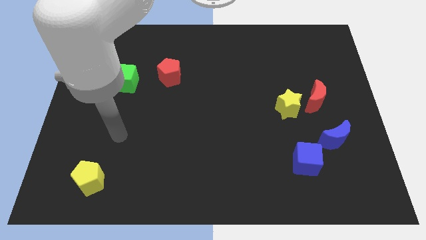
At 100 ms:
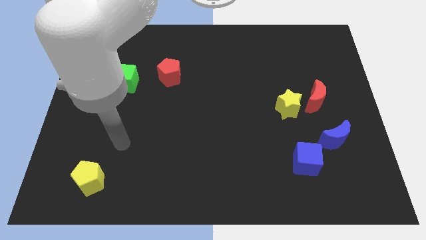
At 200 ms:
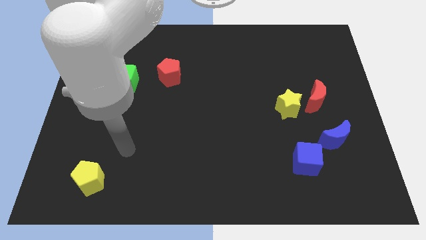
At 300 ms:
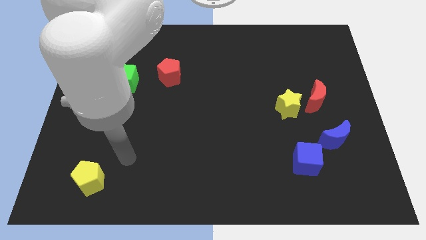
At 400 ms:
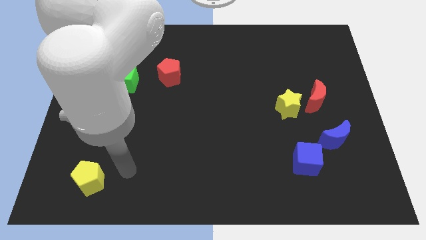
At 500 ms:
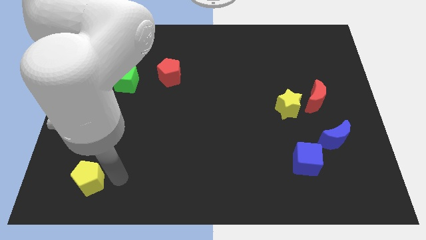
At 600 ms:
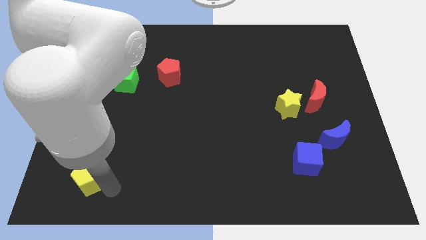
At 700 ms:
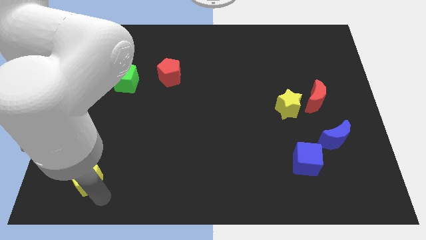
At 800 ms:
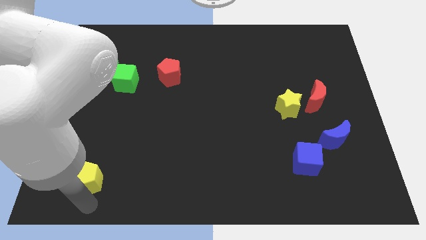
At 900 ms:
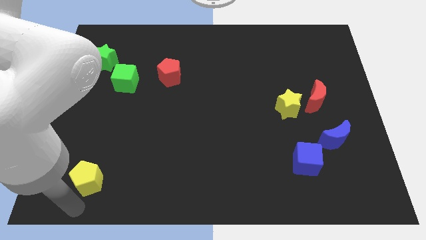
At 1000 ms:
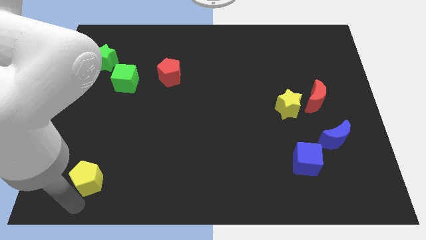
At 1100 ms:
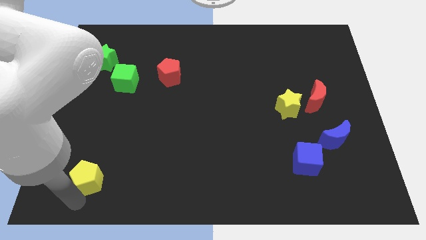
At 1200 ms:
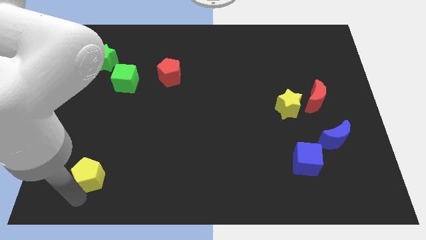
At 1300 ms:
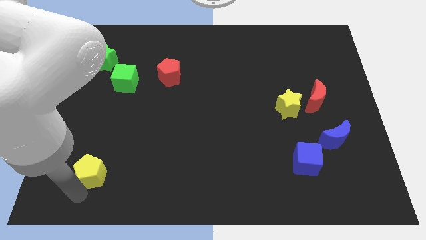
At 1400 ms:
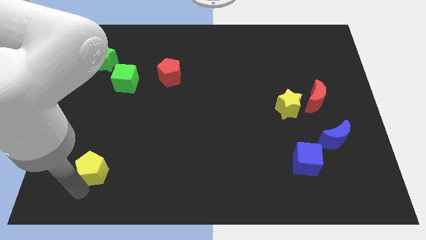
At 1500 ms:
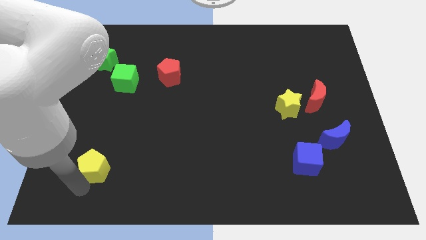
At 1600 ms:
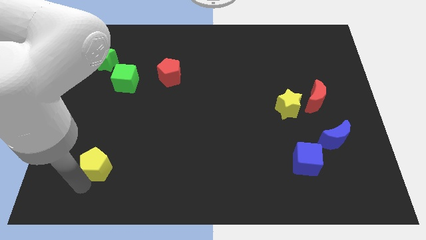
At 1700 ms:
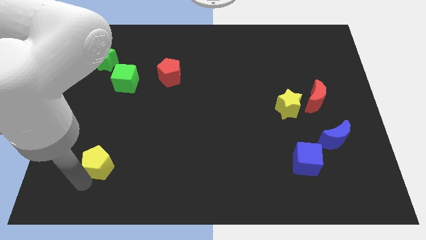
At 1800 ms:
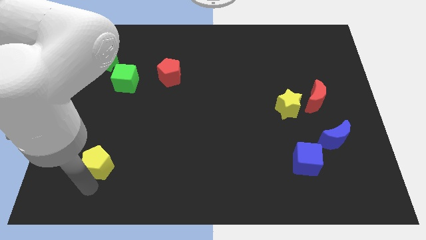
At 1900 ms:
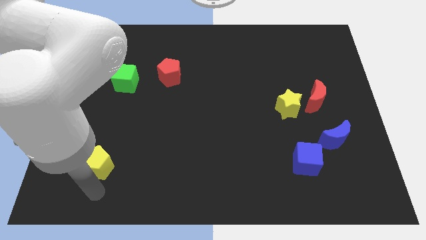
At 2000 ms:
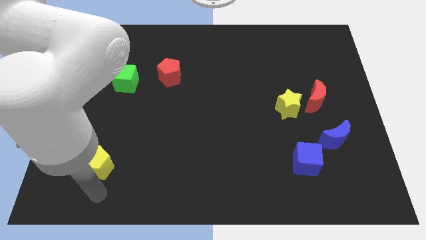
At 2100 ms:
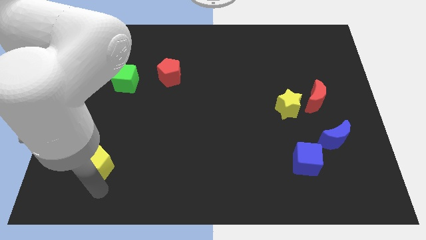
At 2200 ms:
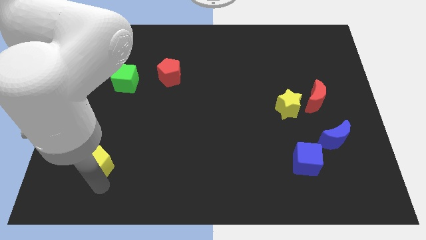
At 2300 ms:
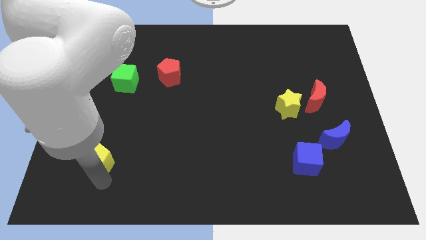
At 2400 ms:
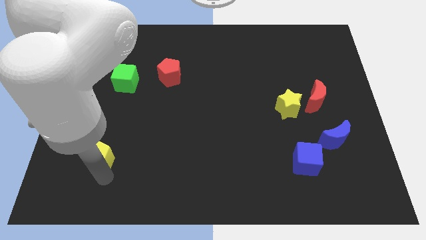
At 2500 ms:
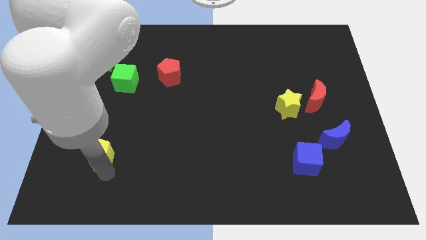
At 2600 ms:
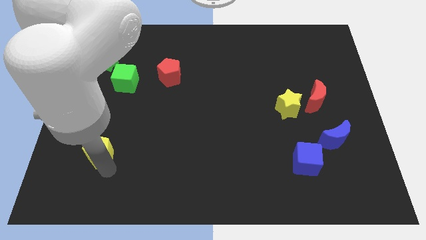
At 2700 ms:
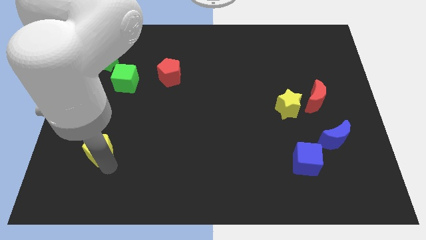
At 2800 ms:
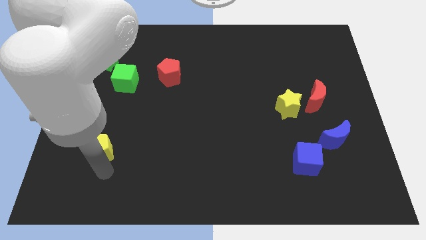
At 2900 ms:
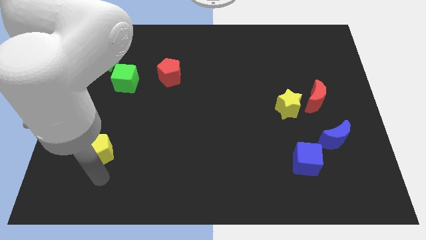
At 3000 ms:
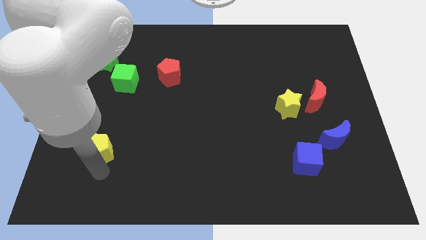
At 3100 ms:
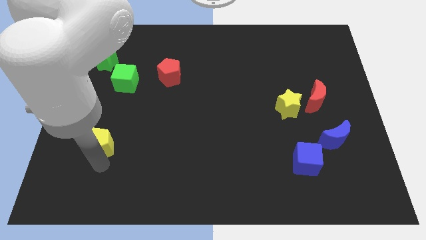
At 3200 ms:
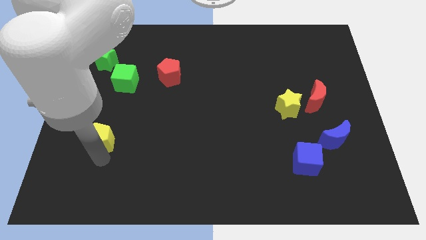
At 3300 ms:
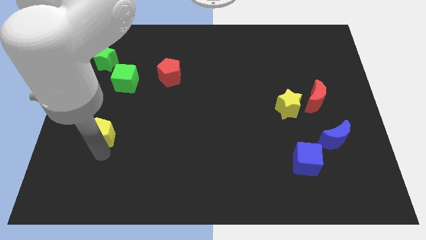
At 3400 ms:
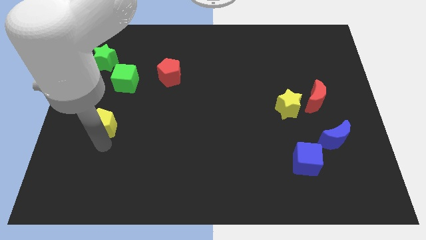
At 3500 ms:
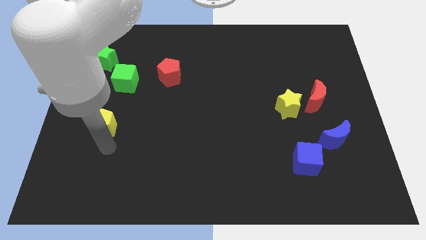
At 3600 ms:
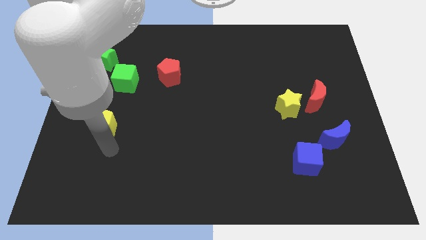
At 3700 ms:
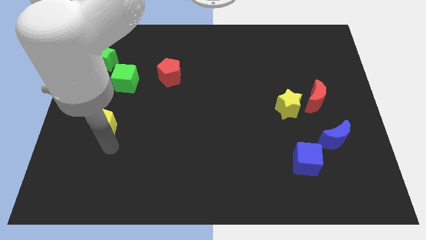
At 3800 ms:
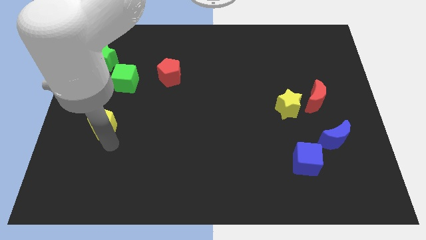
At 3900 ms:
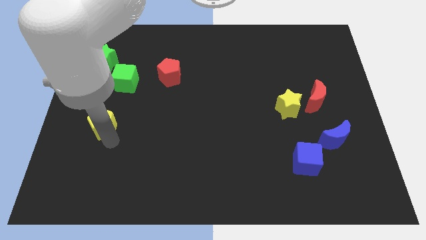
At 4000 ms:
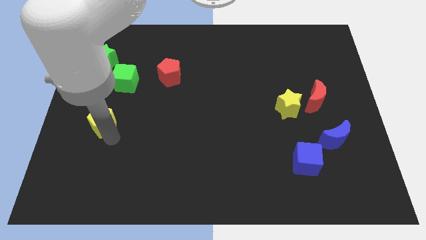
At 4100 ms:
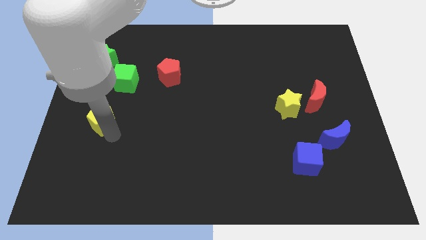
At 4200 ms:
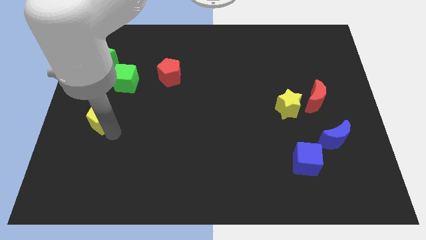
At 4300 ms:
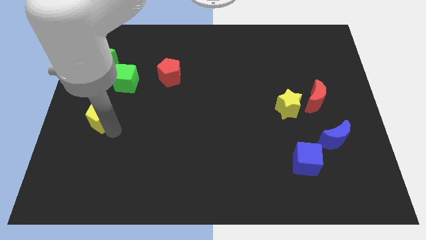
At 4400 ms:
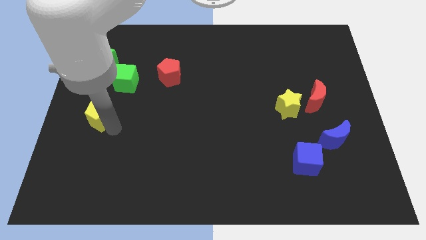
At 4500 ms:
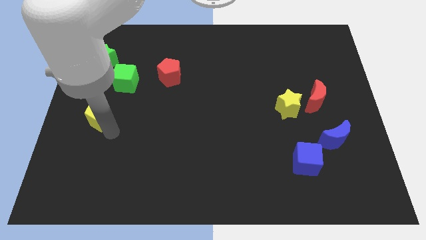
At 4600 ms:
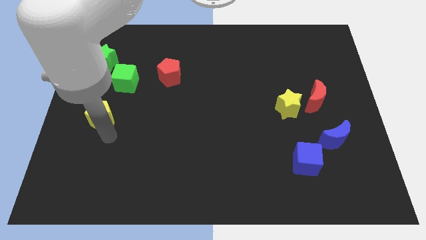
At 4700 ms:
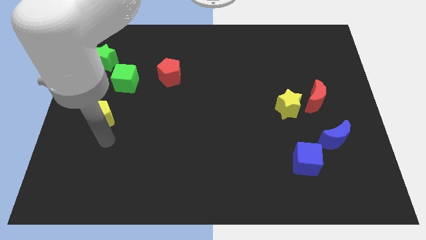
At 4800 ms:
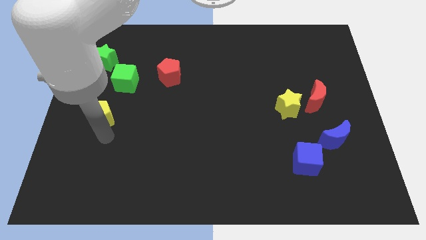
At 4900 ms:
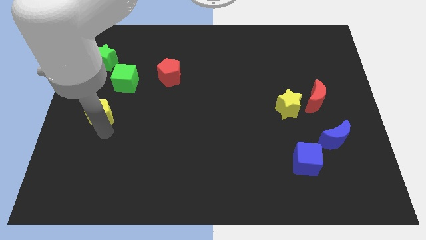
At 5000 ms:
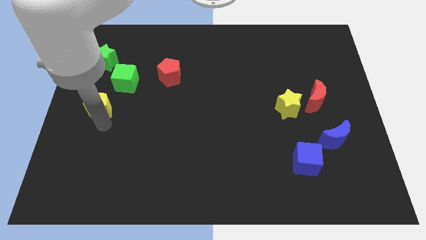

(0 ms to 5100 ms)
slide the yellow pentagon to the bottom side of the green star

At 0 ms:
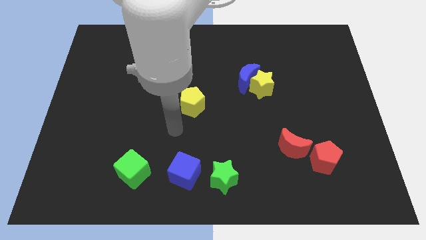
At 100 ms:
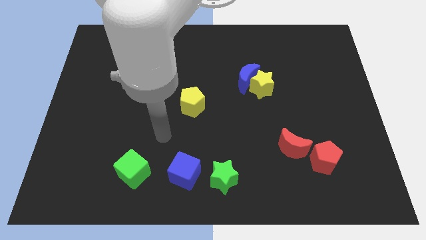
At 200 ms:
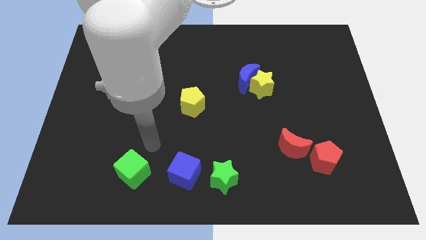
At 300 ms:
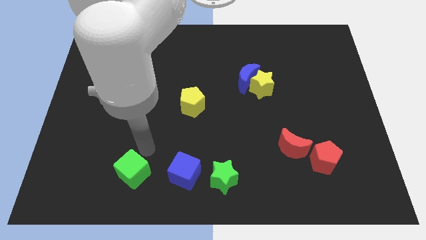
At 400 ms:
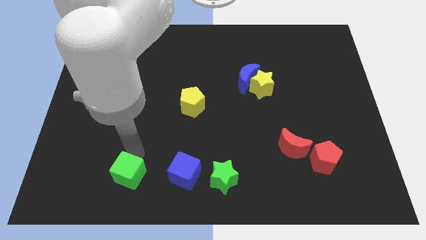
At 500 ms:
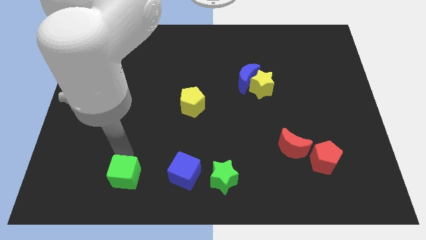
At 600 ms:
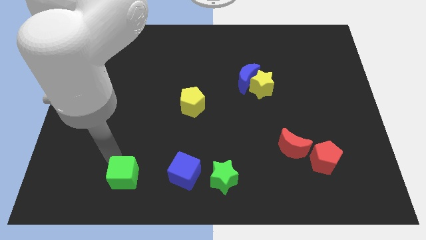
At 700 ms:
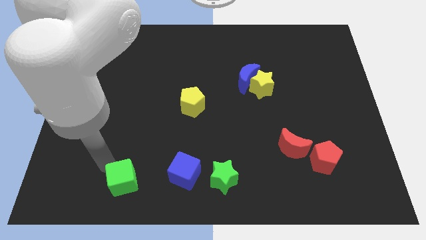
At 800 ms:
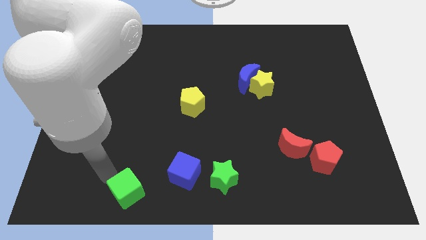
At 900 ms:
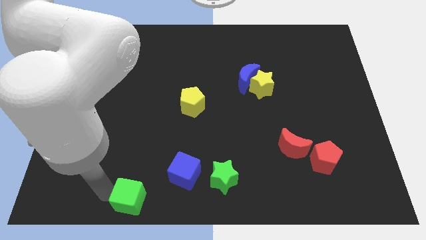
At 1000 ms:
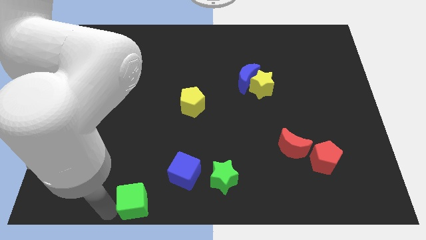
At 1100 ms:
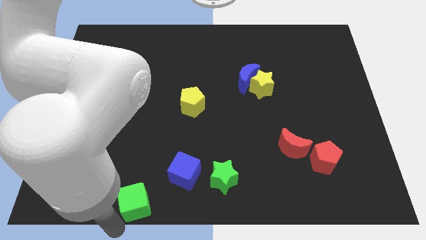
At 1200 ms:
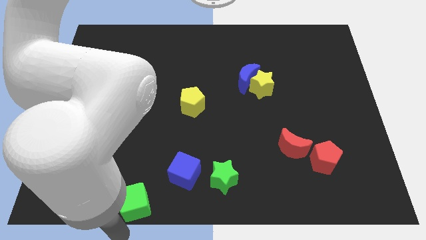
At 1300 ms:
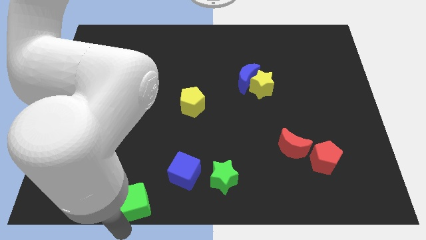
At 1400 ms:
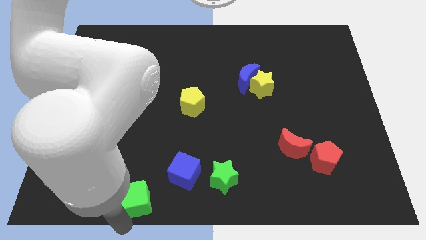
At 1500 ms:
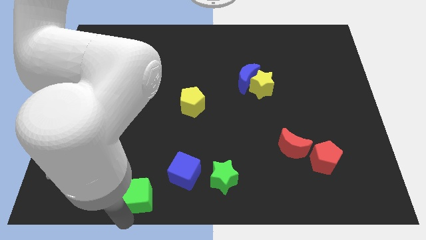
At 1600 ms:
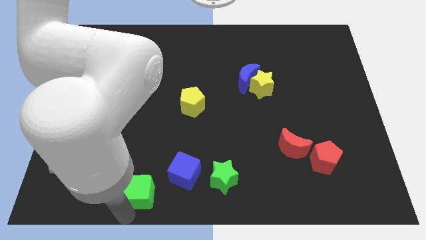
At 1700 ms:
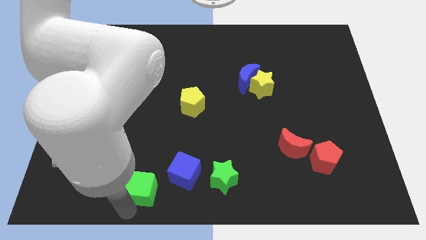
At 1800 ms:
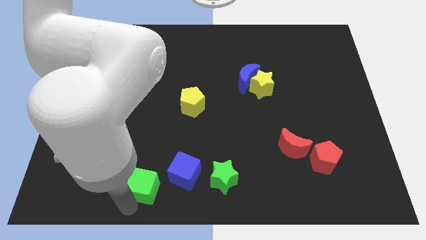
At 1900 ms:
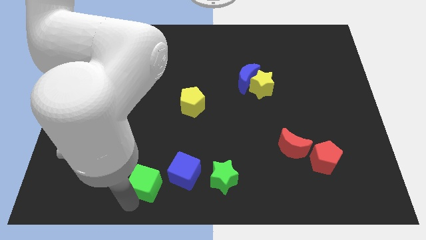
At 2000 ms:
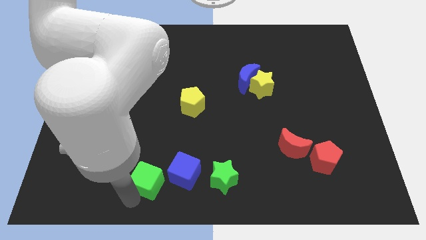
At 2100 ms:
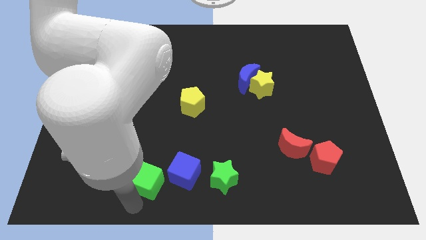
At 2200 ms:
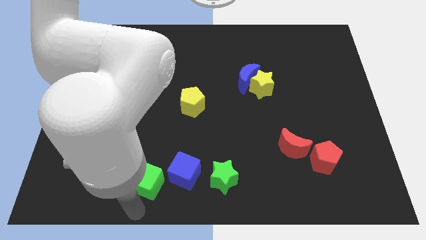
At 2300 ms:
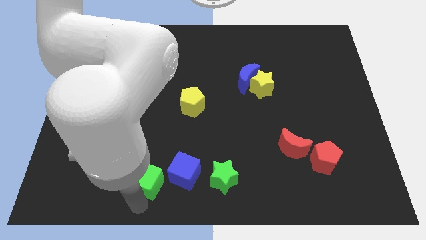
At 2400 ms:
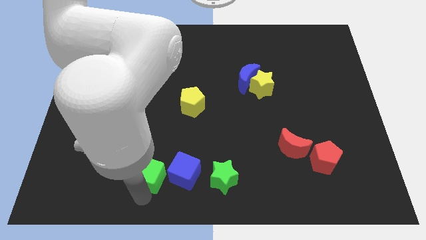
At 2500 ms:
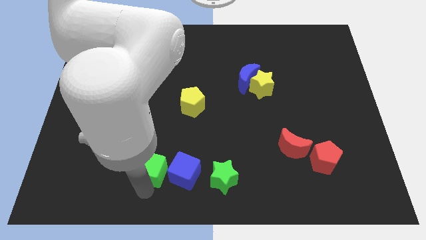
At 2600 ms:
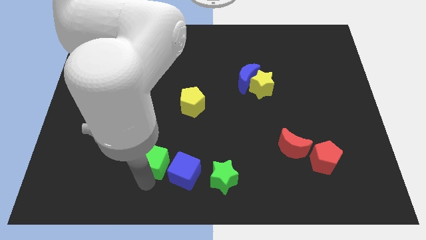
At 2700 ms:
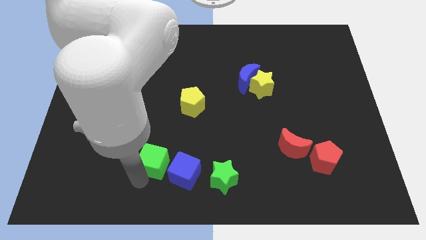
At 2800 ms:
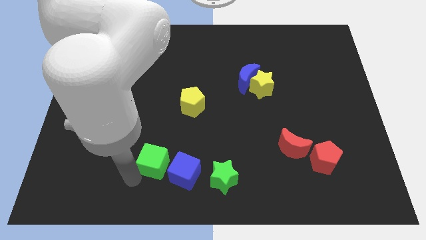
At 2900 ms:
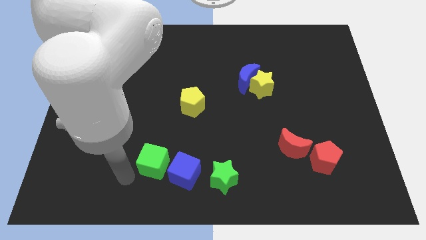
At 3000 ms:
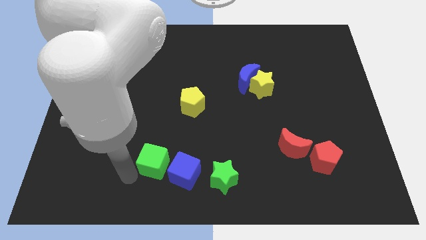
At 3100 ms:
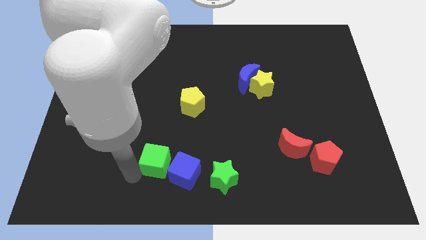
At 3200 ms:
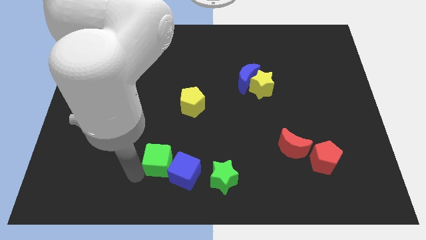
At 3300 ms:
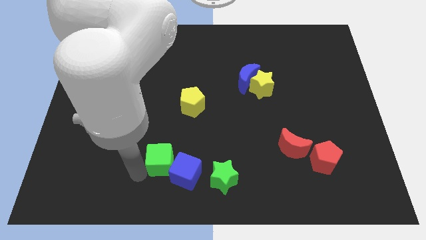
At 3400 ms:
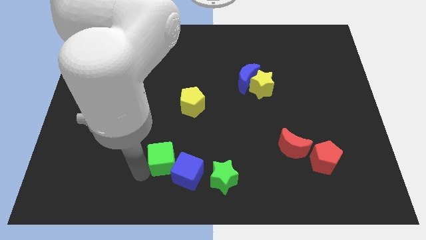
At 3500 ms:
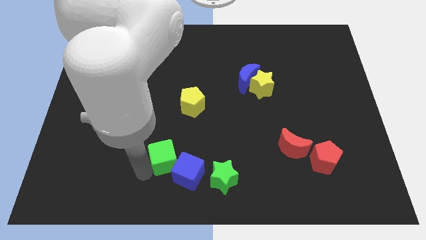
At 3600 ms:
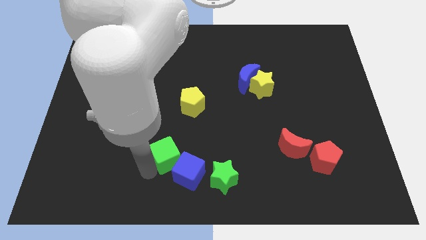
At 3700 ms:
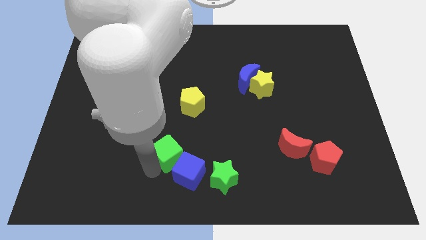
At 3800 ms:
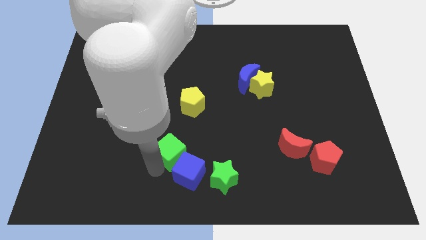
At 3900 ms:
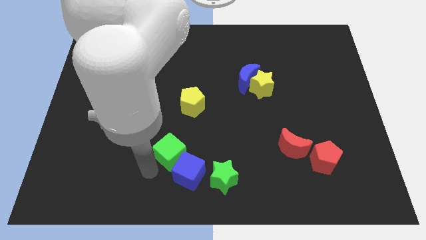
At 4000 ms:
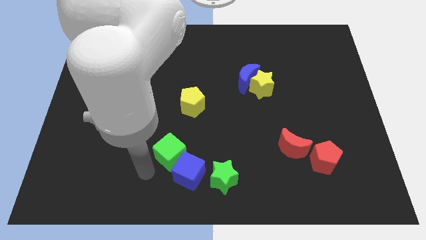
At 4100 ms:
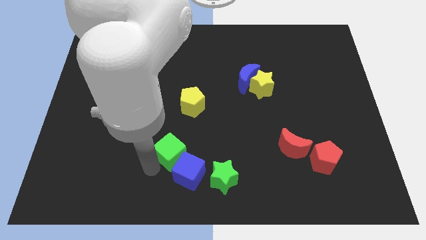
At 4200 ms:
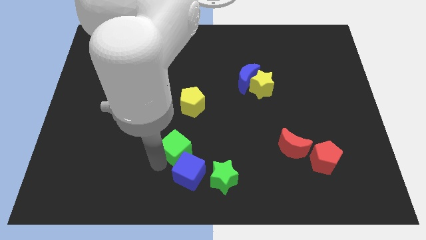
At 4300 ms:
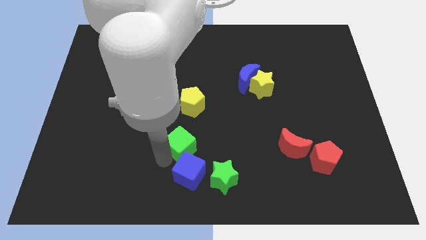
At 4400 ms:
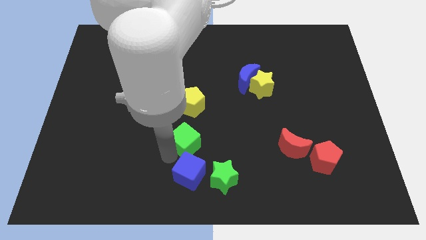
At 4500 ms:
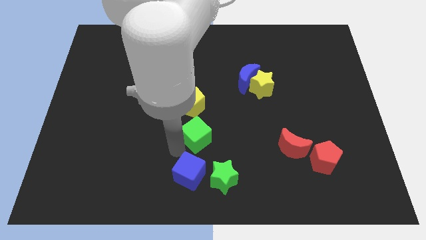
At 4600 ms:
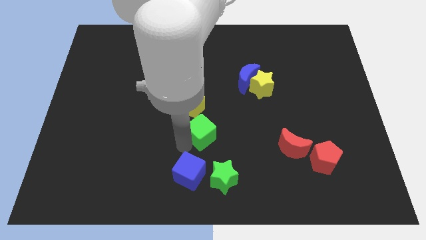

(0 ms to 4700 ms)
move the green cube diagonally down and to the right of the yellow pentagon
